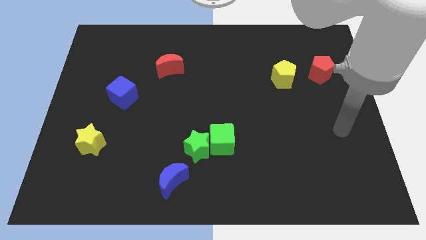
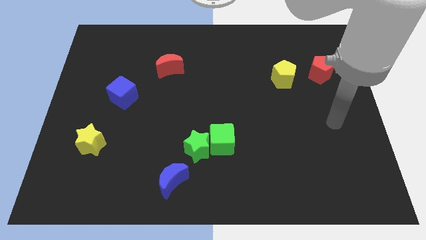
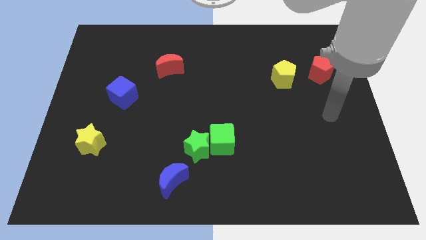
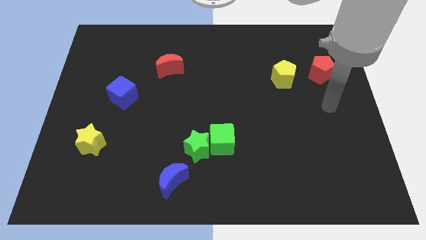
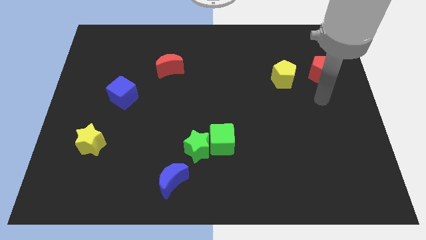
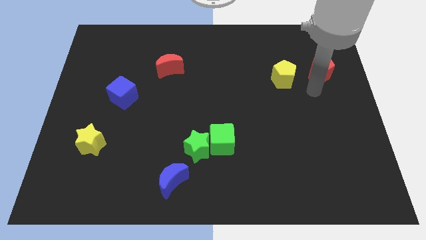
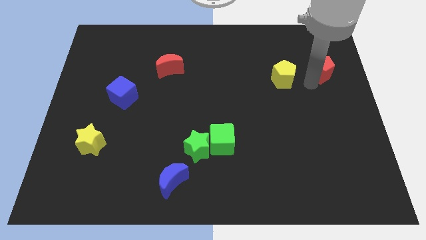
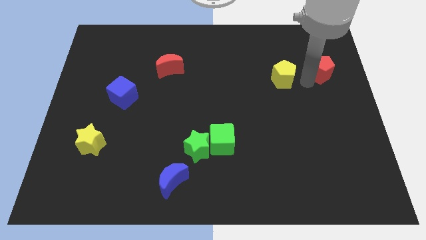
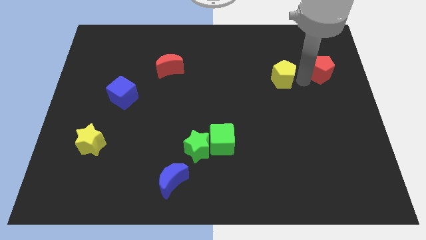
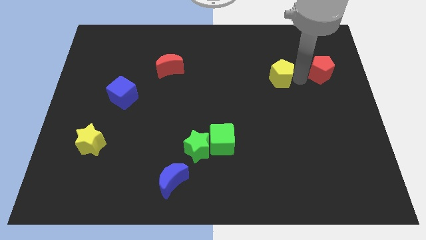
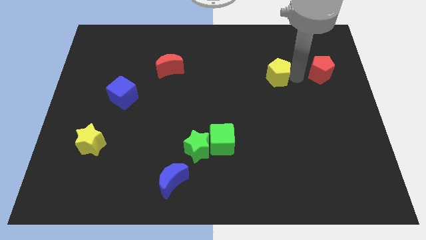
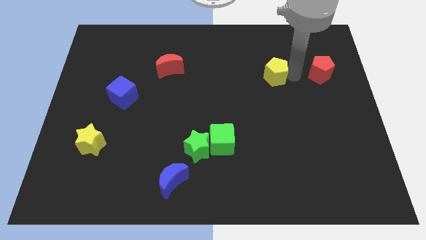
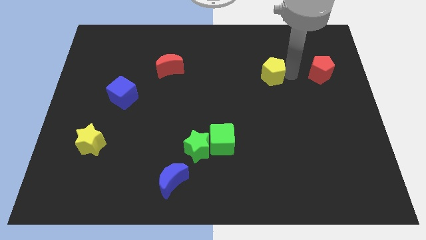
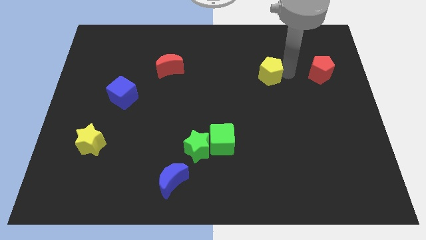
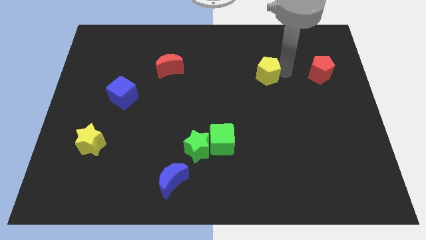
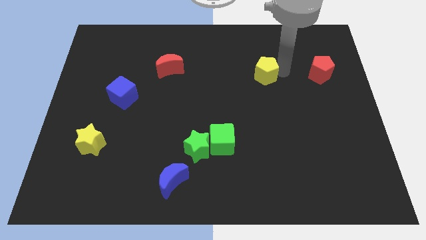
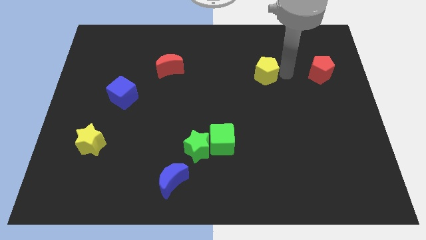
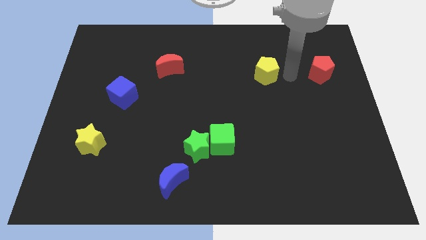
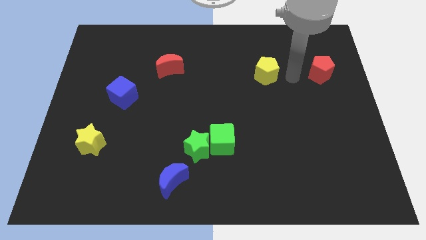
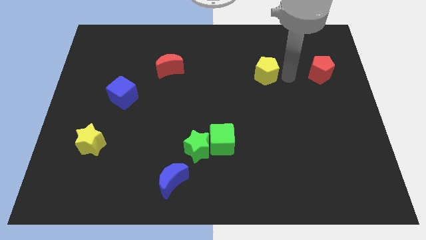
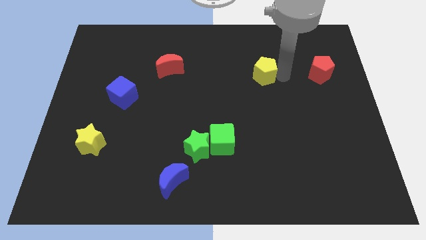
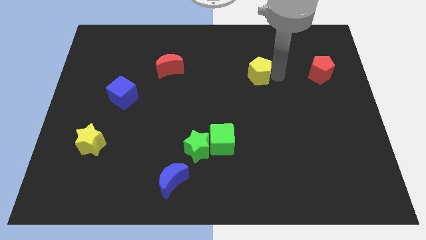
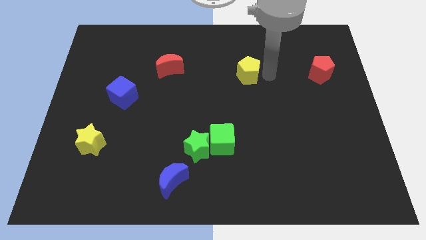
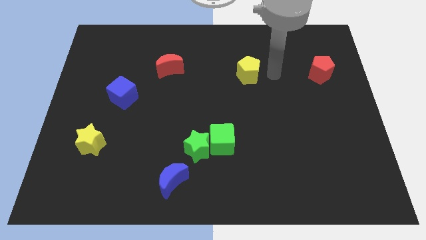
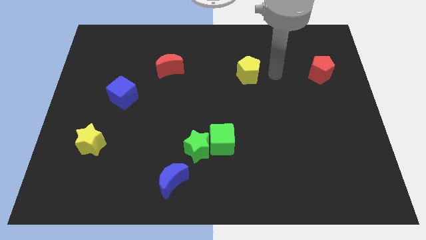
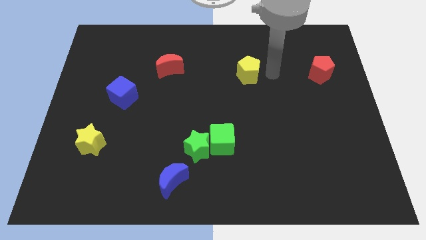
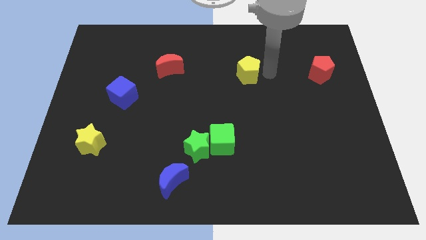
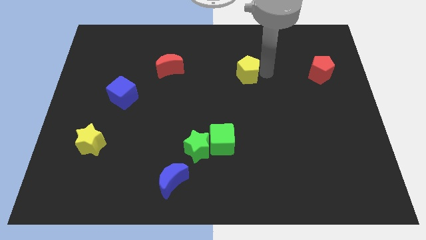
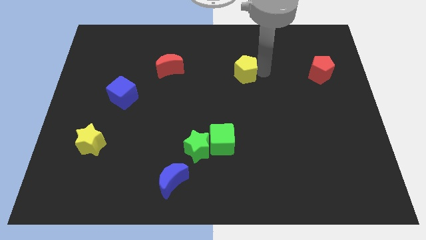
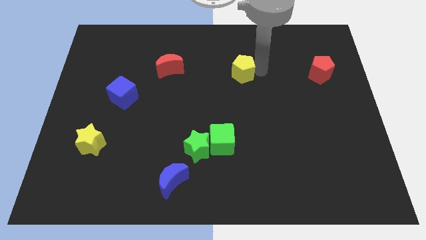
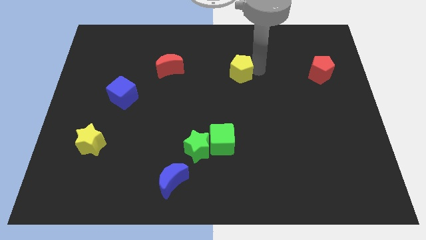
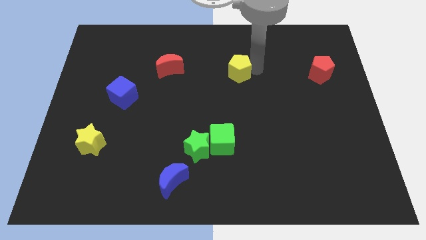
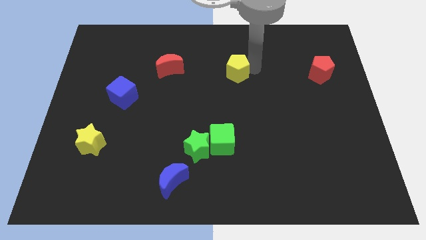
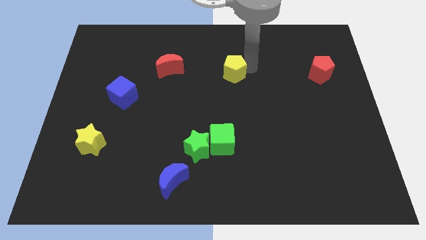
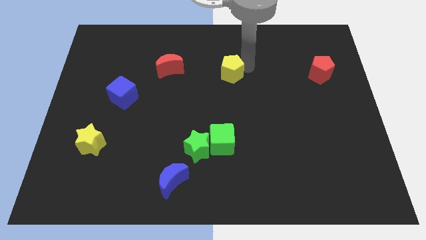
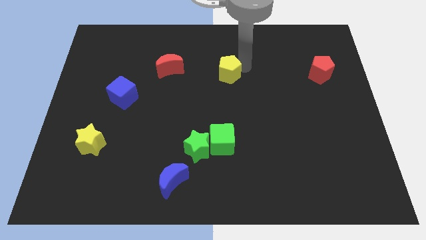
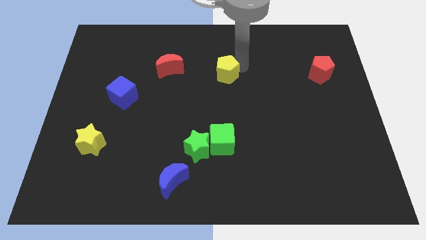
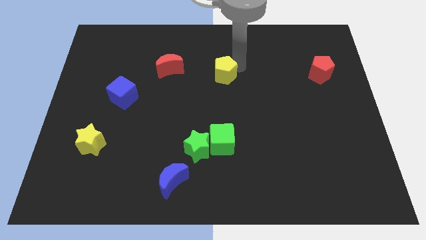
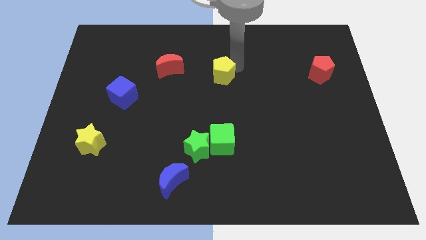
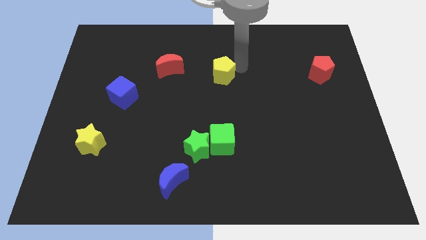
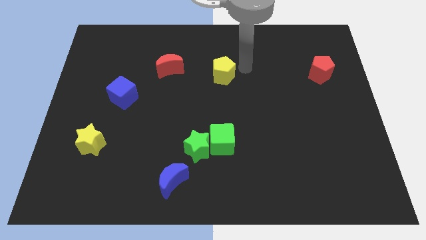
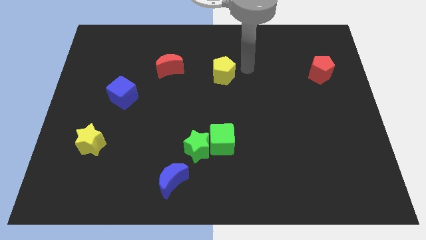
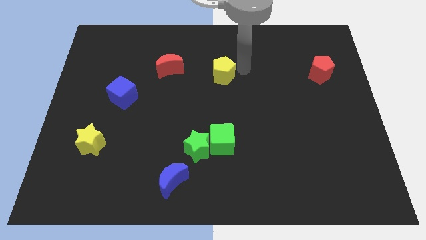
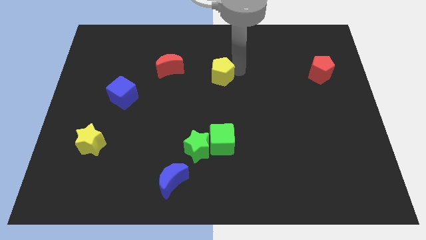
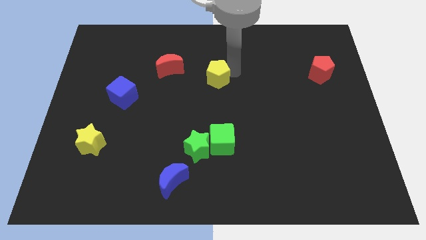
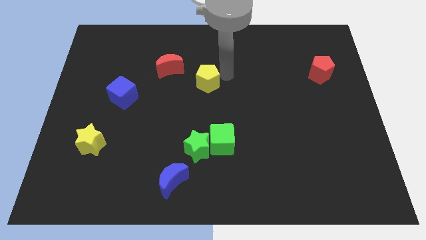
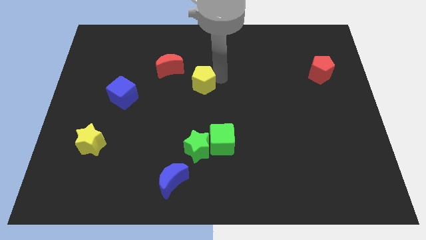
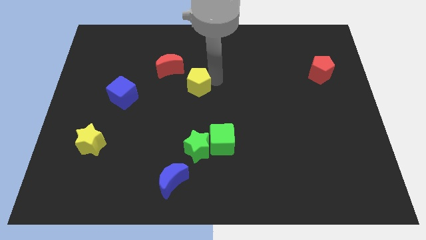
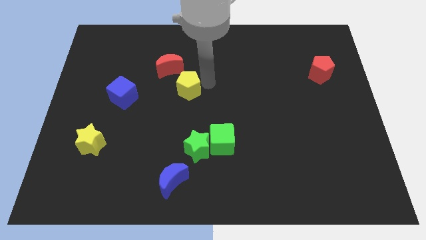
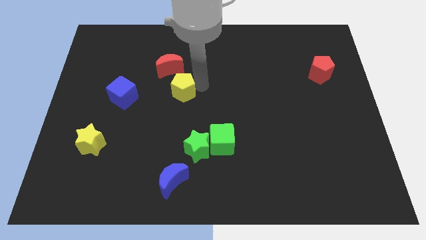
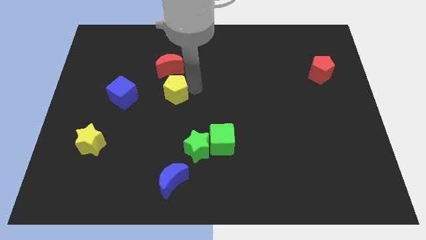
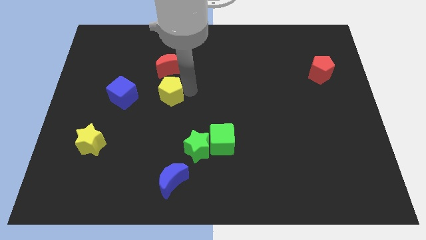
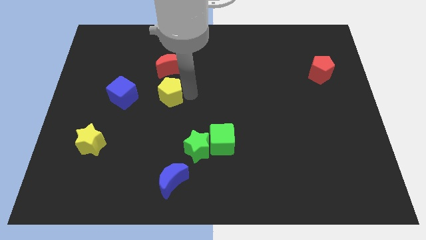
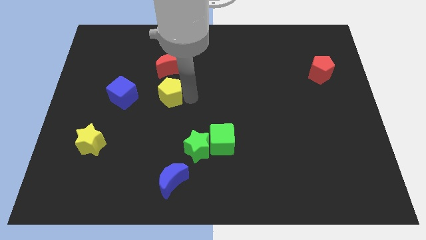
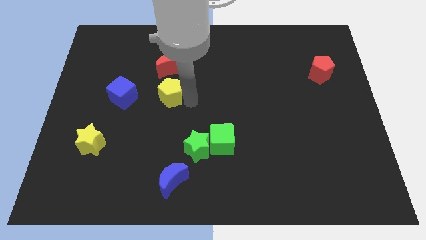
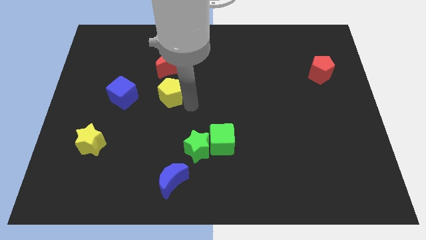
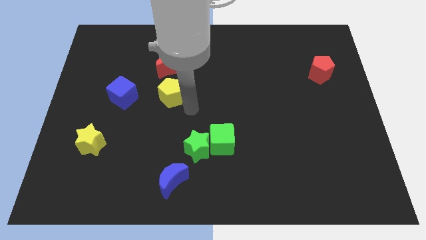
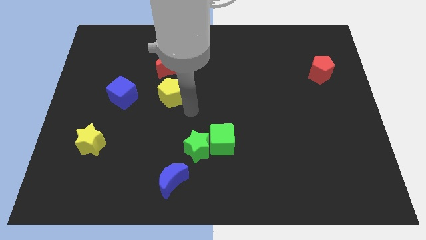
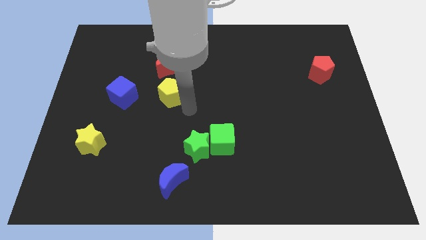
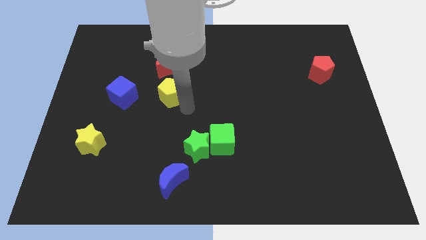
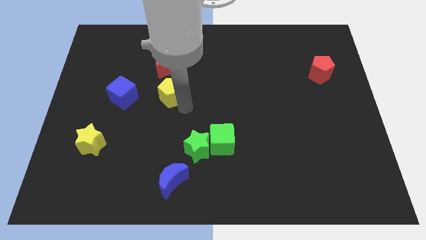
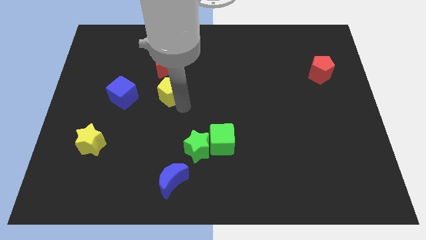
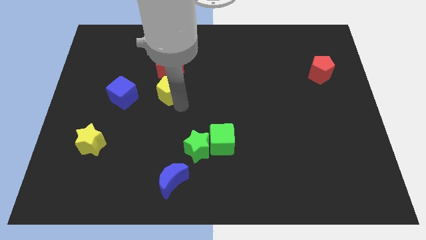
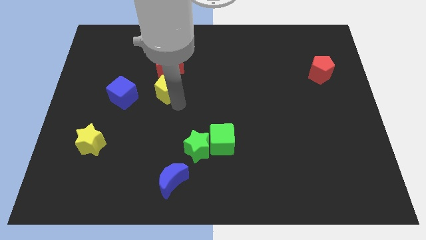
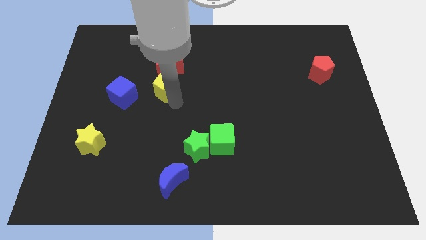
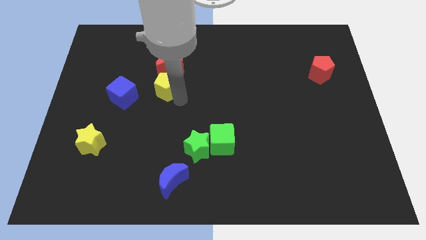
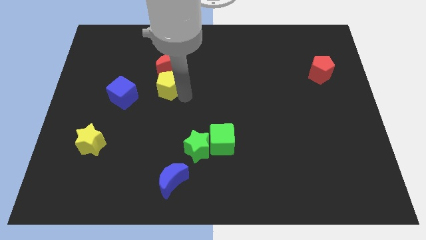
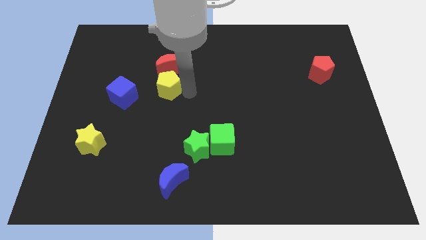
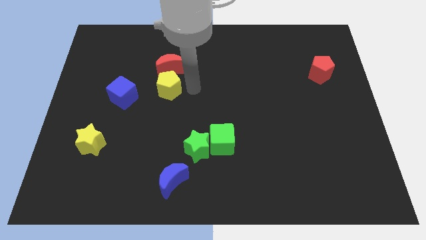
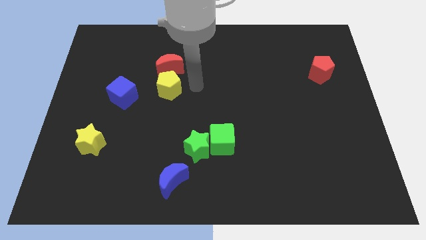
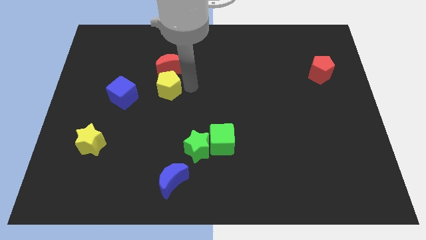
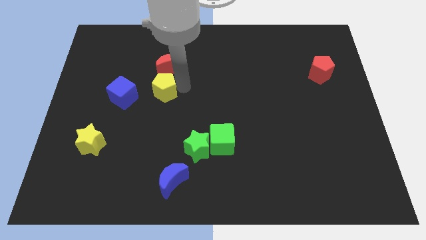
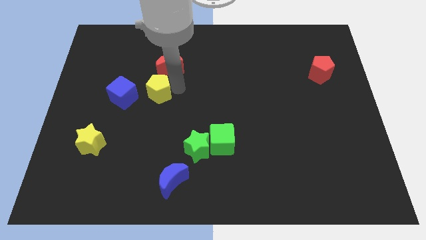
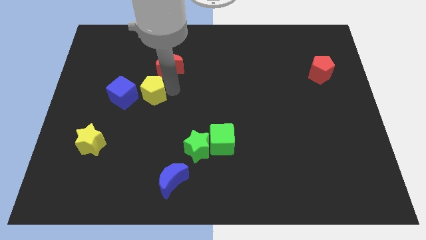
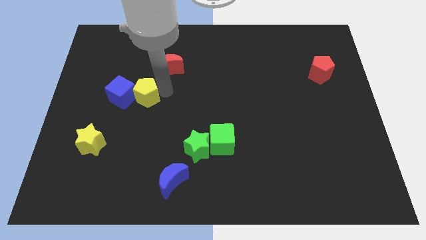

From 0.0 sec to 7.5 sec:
move the yellow pentagon to the blue cube
